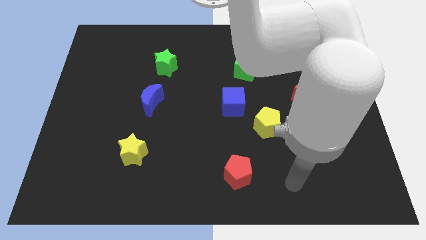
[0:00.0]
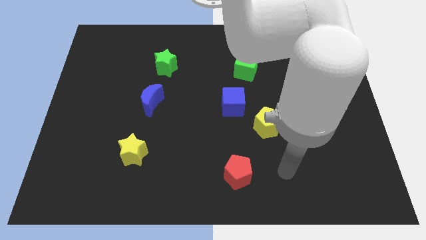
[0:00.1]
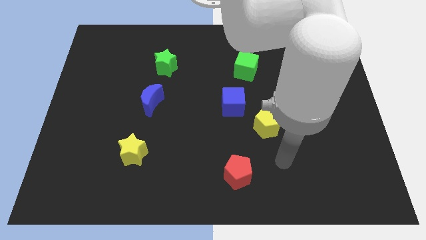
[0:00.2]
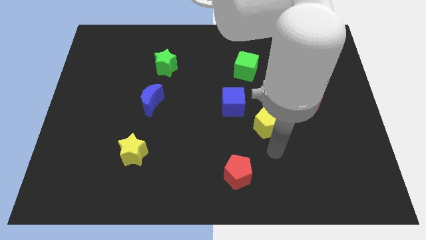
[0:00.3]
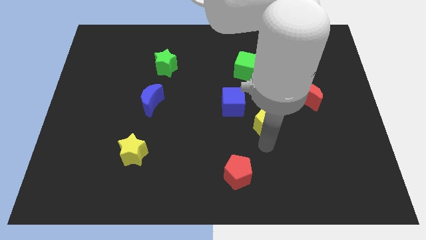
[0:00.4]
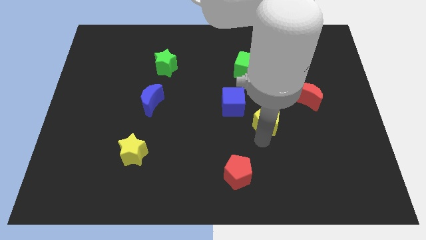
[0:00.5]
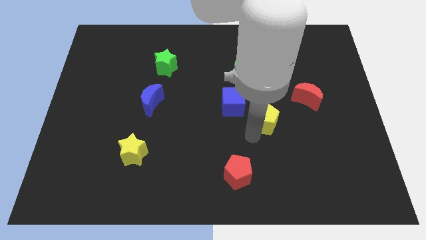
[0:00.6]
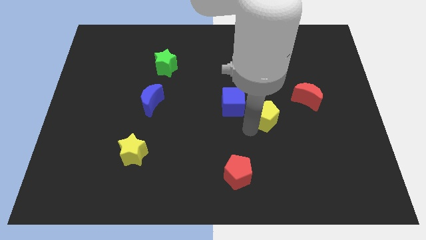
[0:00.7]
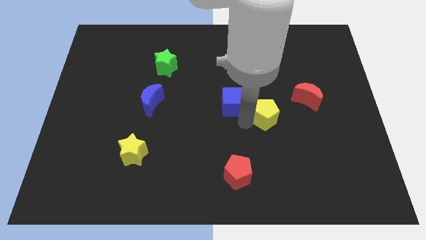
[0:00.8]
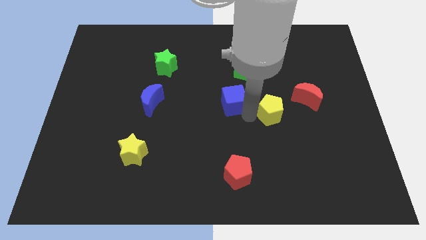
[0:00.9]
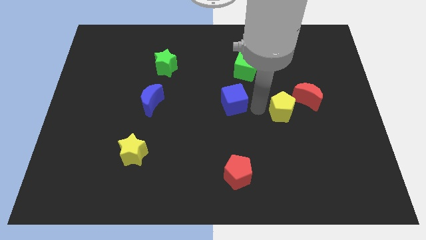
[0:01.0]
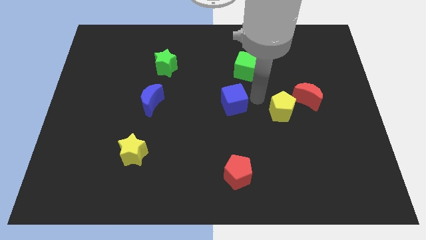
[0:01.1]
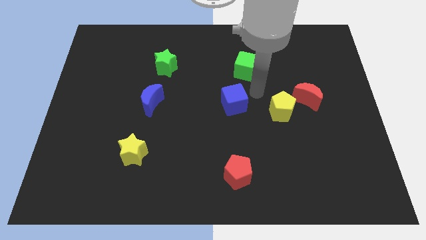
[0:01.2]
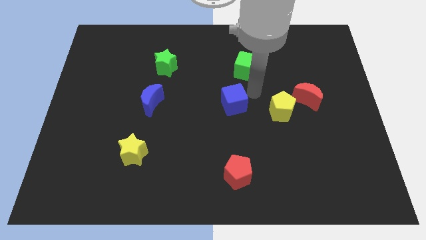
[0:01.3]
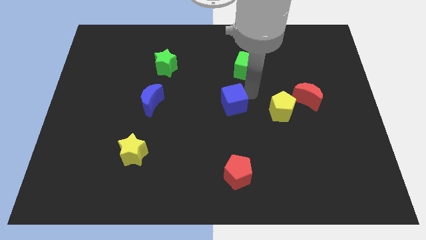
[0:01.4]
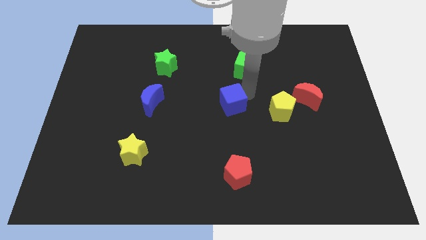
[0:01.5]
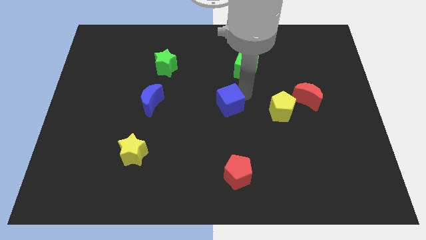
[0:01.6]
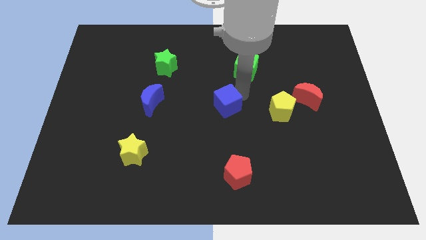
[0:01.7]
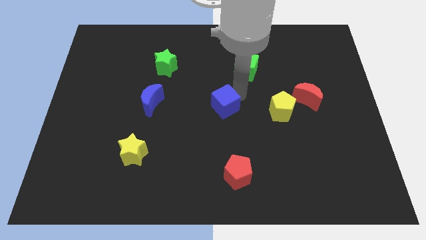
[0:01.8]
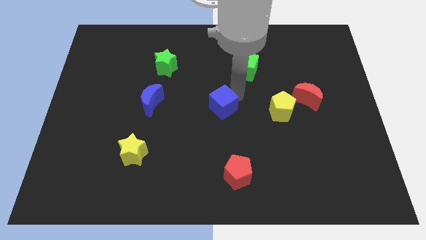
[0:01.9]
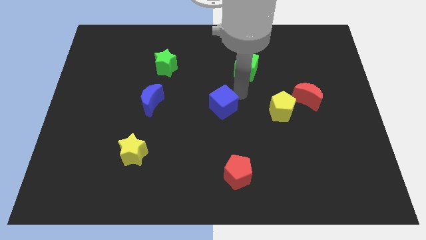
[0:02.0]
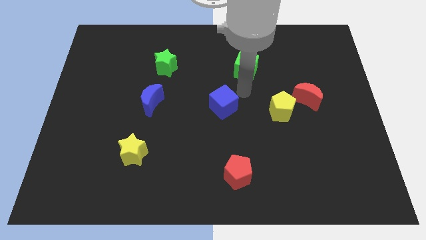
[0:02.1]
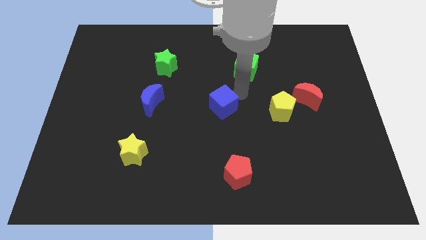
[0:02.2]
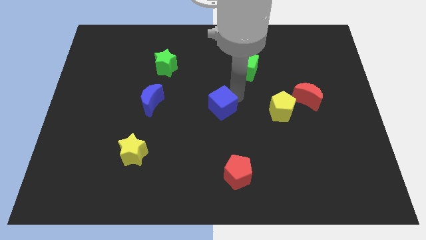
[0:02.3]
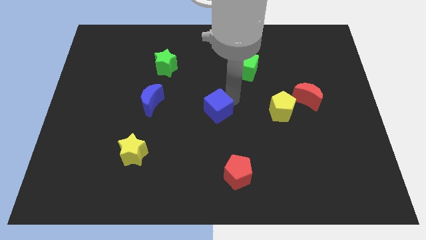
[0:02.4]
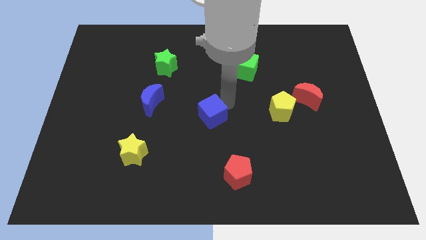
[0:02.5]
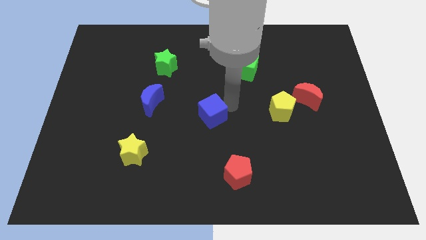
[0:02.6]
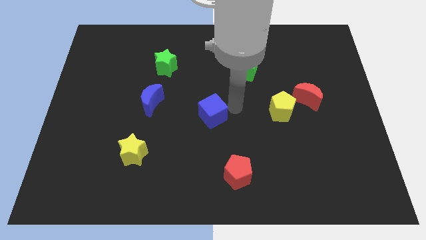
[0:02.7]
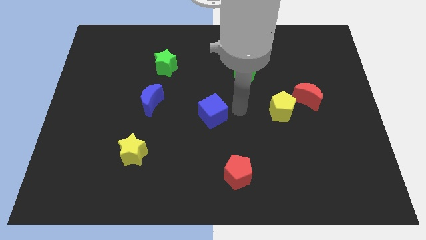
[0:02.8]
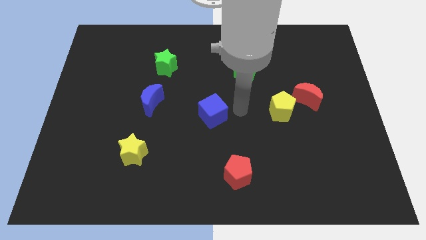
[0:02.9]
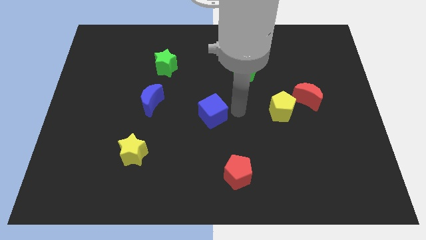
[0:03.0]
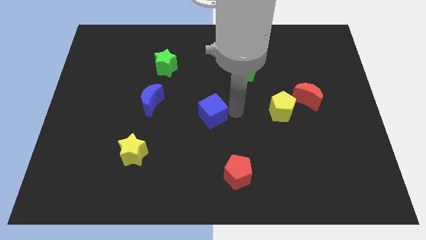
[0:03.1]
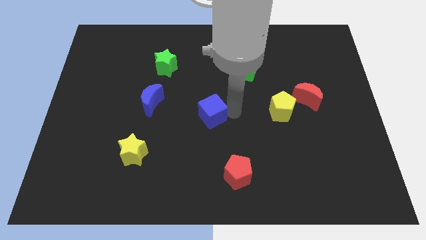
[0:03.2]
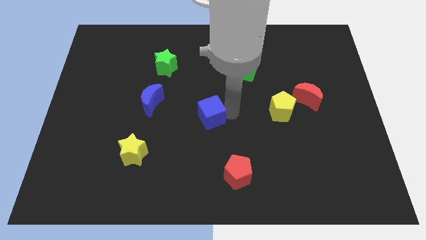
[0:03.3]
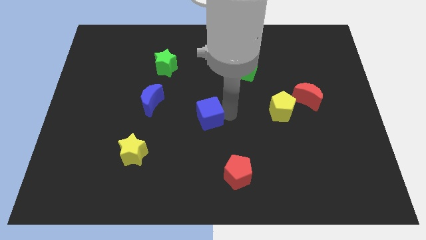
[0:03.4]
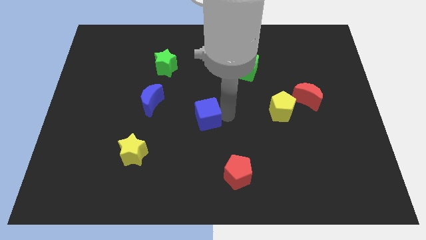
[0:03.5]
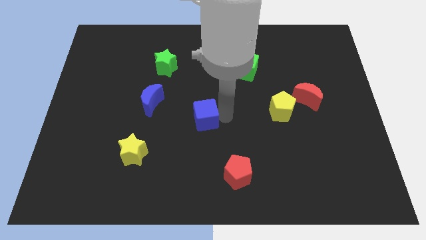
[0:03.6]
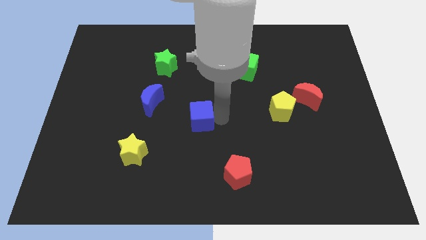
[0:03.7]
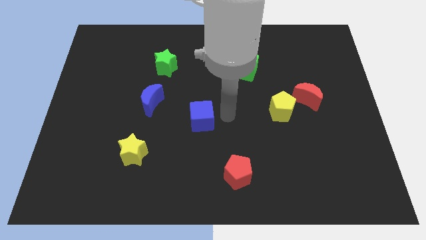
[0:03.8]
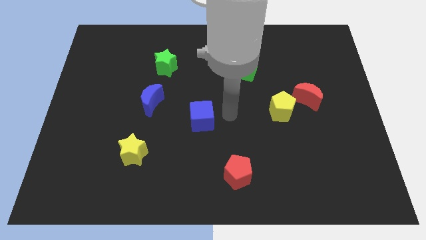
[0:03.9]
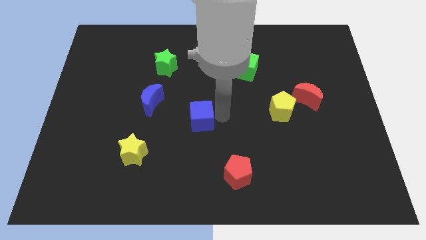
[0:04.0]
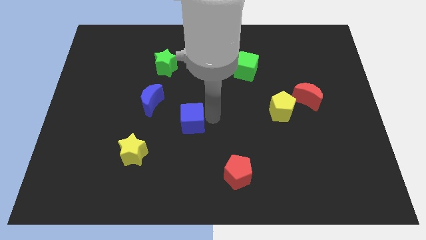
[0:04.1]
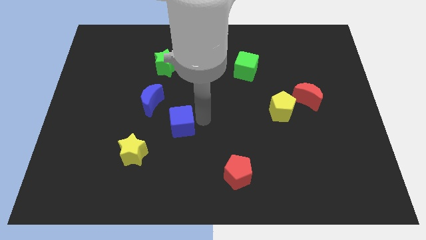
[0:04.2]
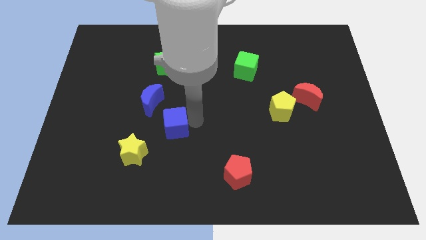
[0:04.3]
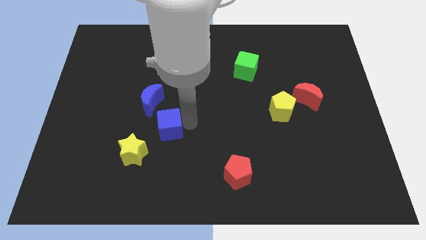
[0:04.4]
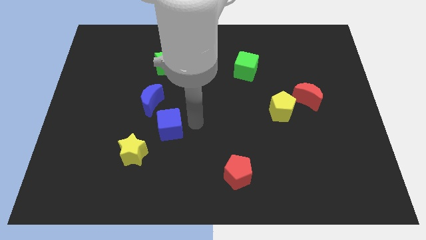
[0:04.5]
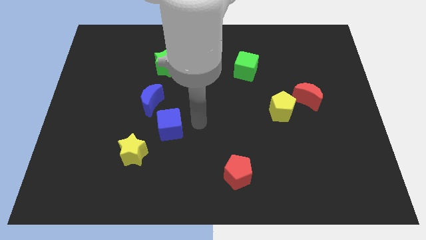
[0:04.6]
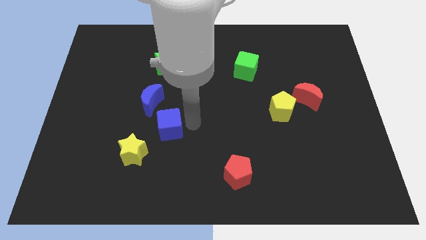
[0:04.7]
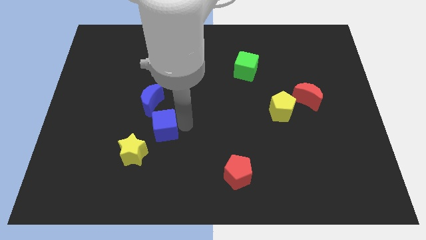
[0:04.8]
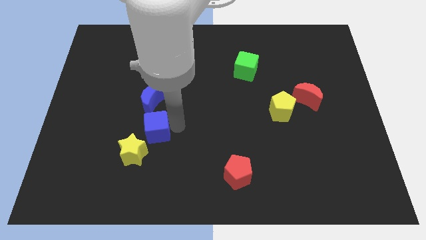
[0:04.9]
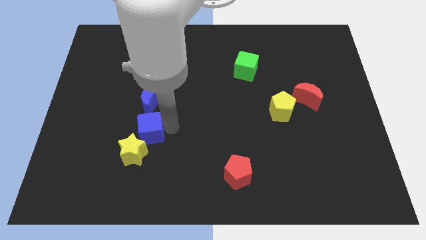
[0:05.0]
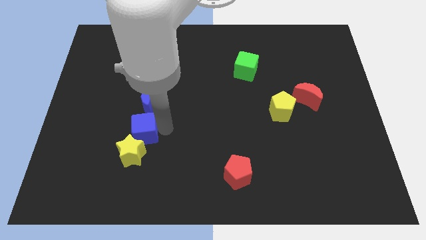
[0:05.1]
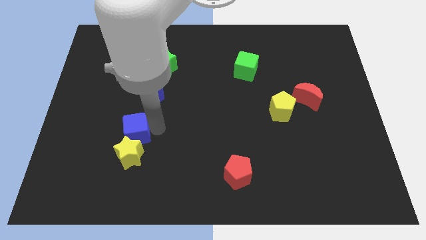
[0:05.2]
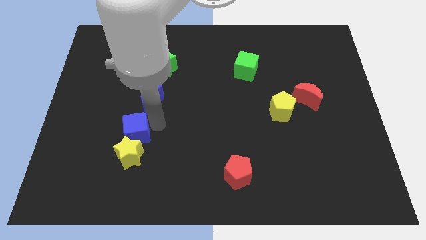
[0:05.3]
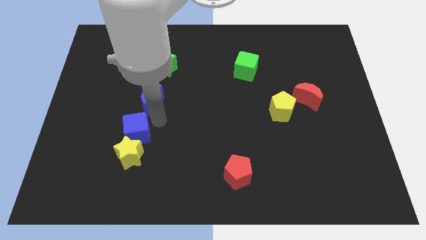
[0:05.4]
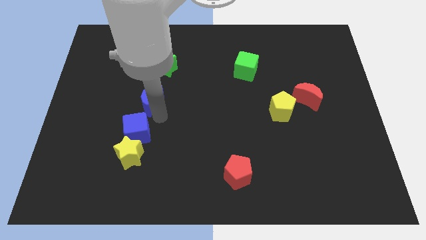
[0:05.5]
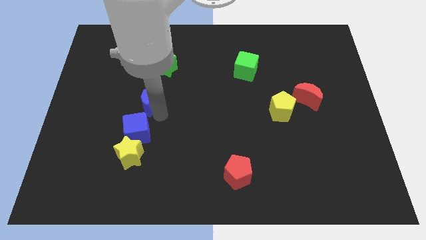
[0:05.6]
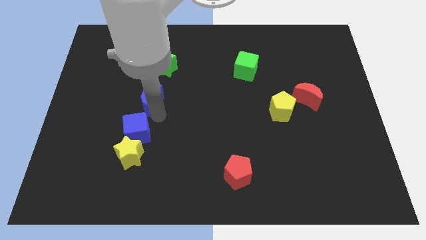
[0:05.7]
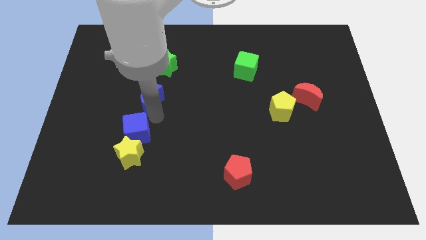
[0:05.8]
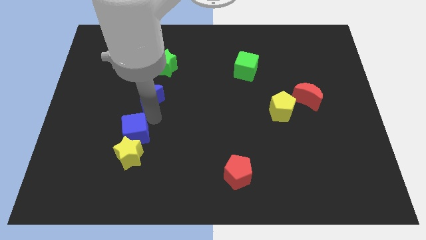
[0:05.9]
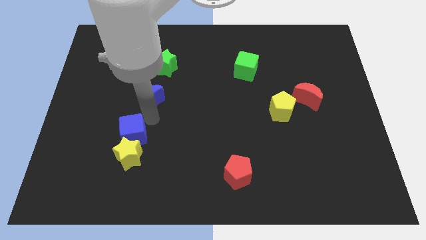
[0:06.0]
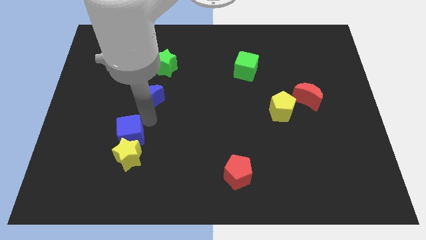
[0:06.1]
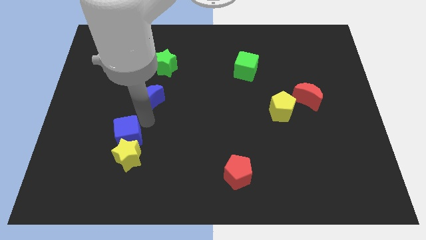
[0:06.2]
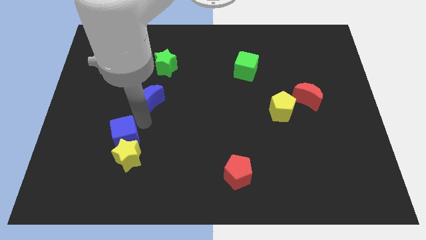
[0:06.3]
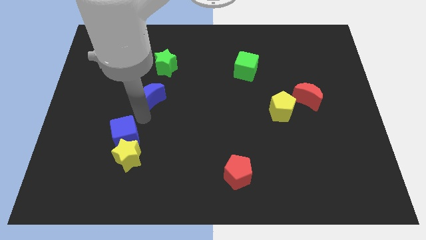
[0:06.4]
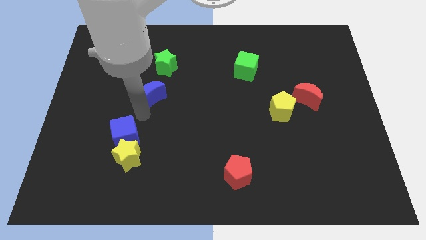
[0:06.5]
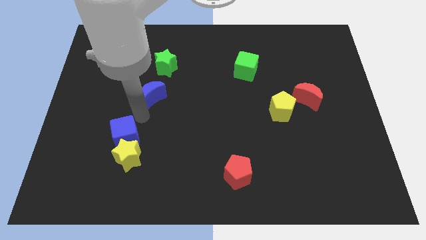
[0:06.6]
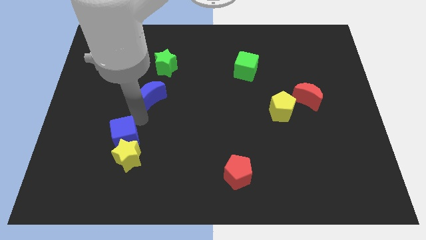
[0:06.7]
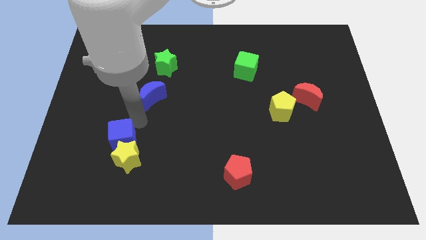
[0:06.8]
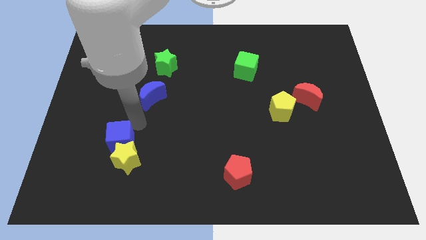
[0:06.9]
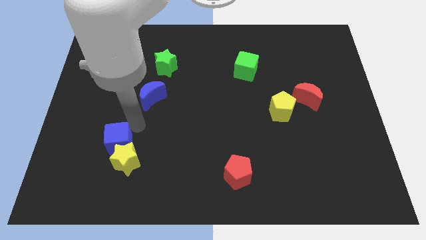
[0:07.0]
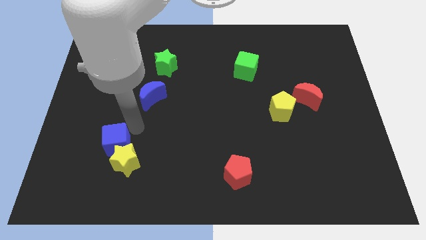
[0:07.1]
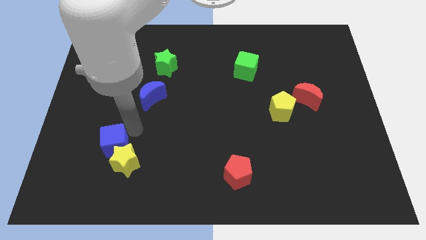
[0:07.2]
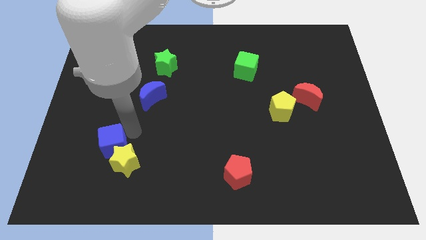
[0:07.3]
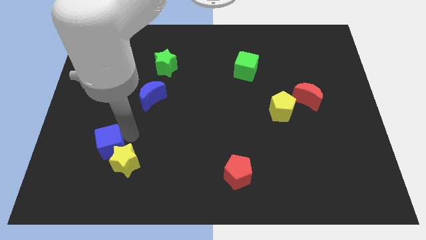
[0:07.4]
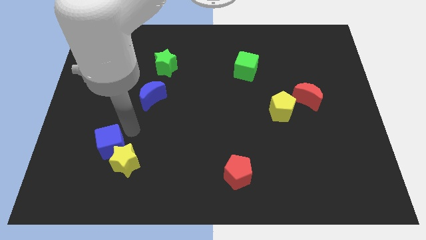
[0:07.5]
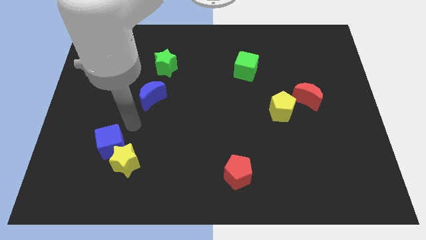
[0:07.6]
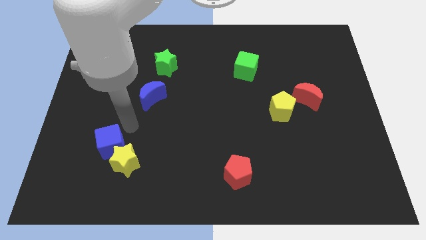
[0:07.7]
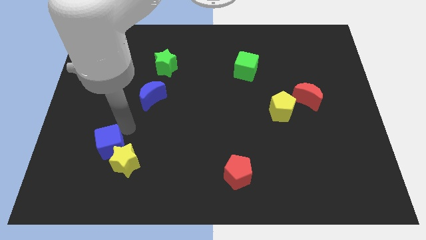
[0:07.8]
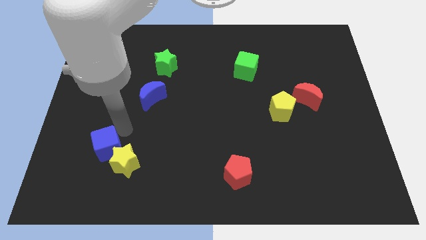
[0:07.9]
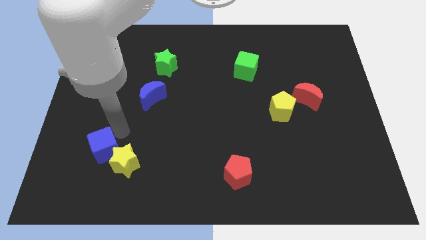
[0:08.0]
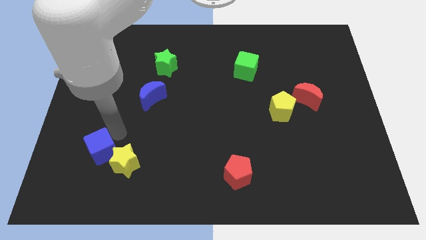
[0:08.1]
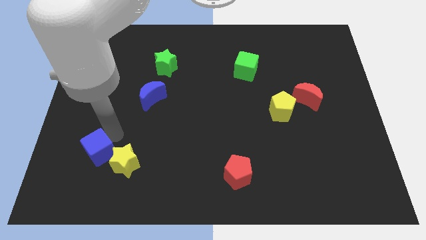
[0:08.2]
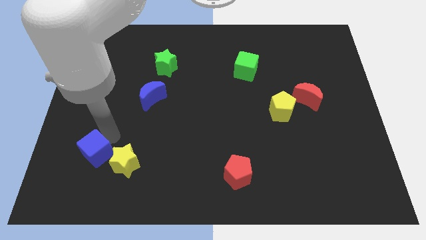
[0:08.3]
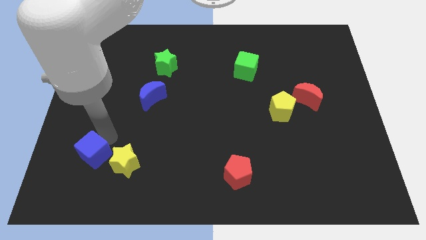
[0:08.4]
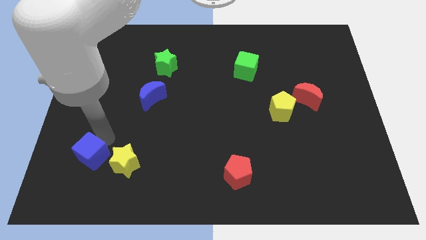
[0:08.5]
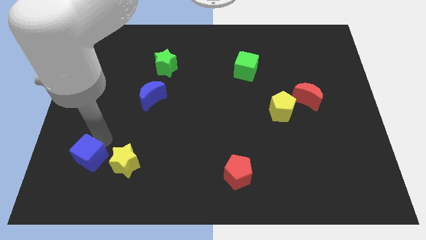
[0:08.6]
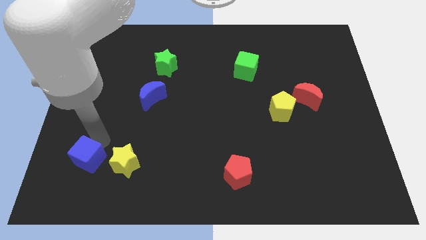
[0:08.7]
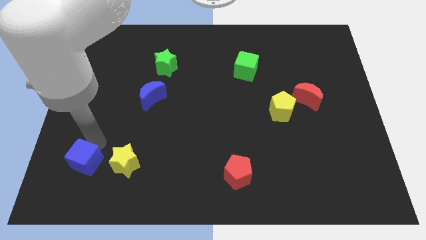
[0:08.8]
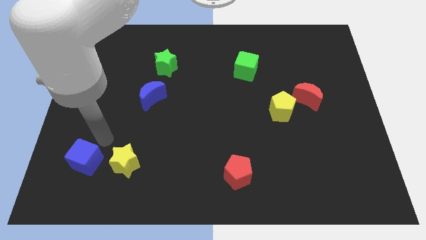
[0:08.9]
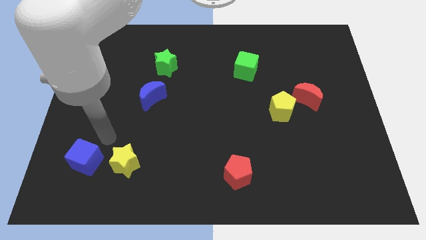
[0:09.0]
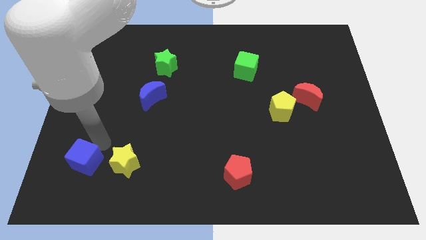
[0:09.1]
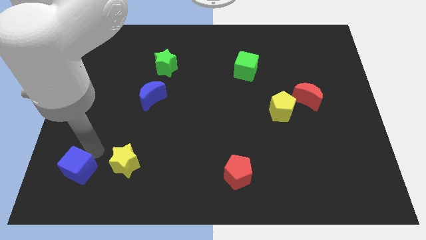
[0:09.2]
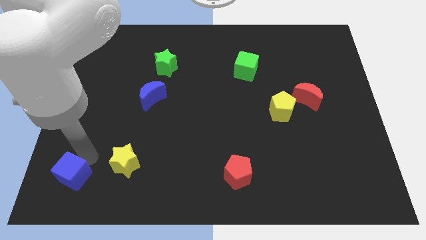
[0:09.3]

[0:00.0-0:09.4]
slide the blue cube to the bottom left corner
